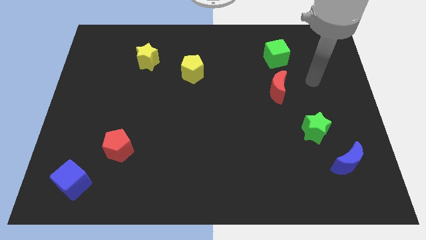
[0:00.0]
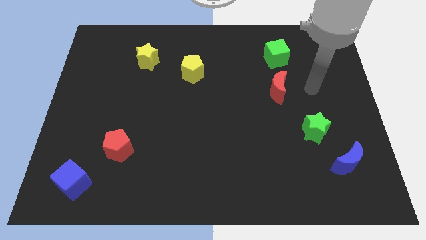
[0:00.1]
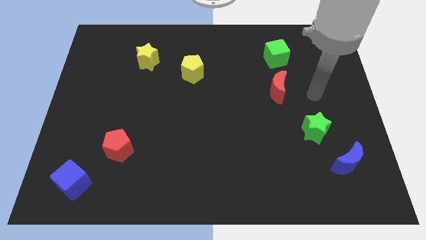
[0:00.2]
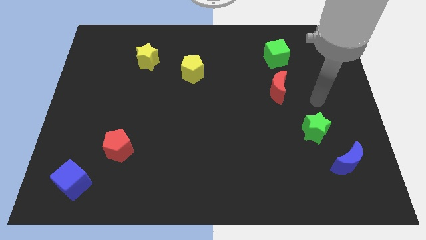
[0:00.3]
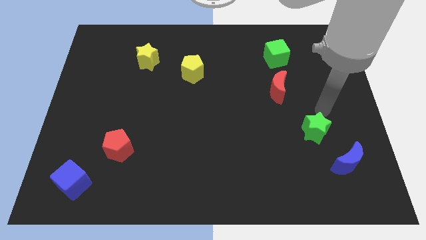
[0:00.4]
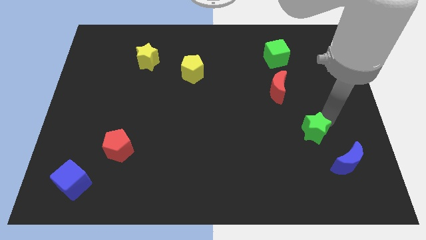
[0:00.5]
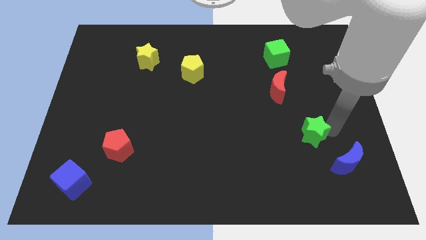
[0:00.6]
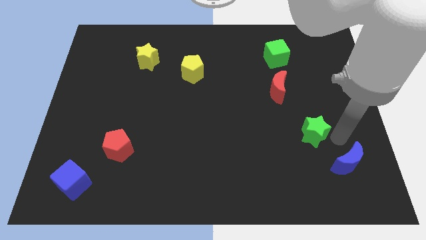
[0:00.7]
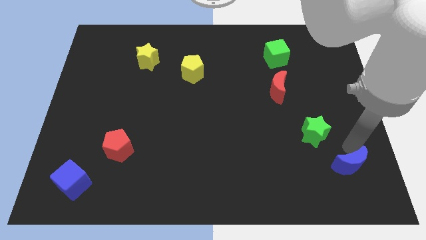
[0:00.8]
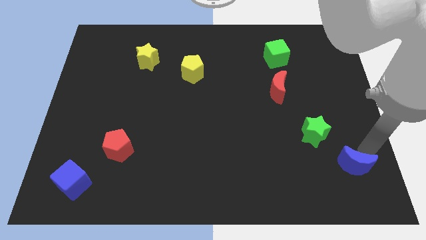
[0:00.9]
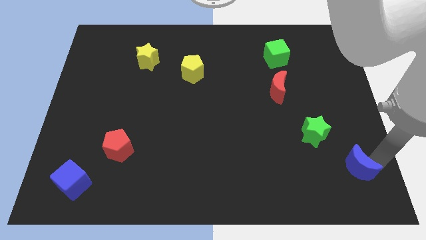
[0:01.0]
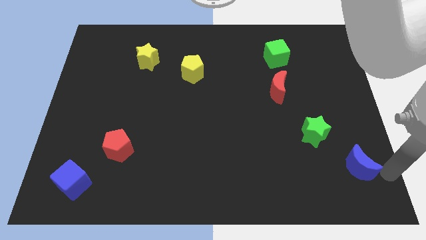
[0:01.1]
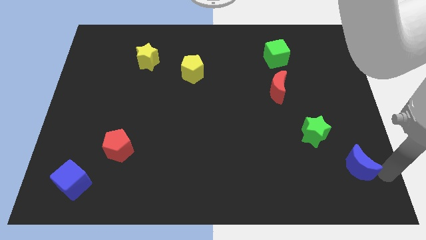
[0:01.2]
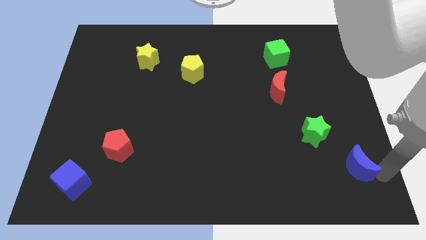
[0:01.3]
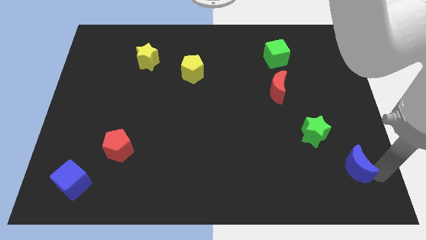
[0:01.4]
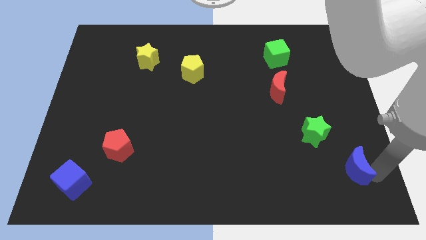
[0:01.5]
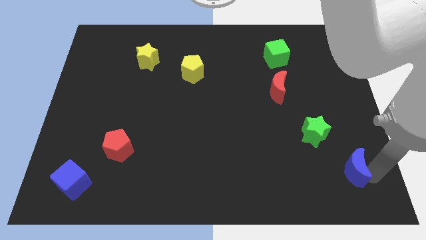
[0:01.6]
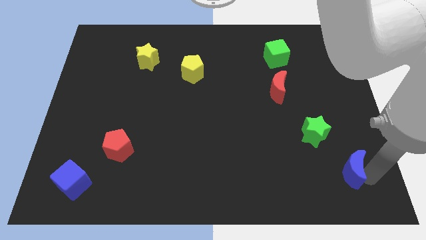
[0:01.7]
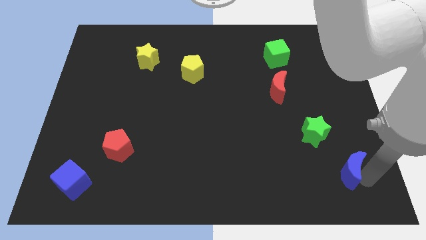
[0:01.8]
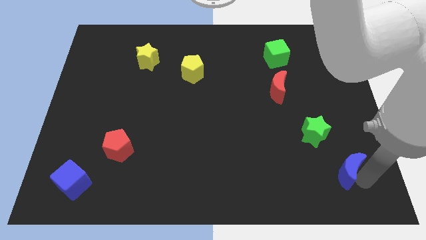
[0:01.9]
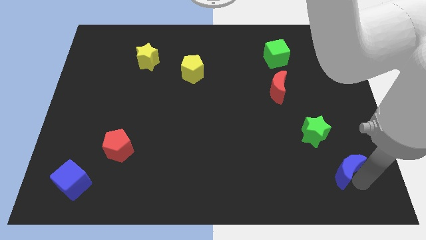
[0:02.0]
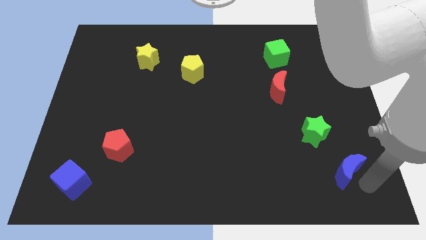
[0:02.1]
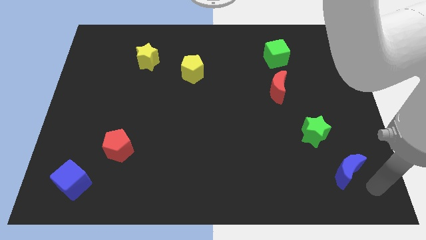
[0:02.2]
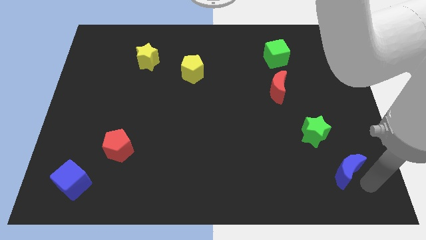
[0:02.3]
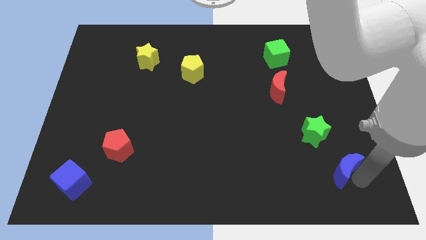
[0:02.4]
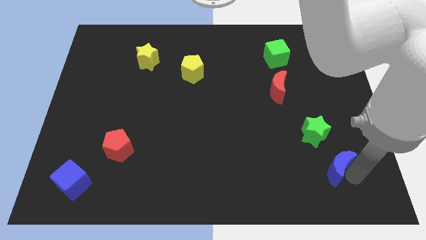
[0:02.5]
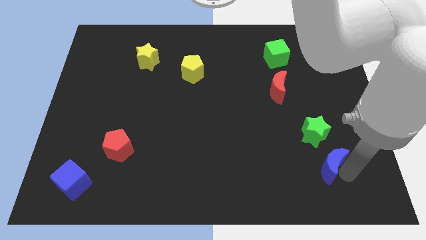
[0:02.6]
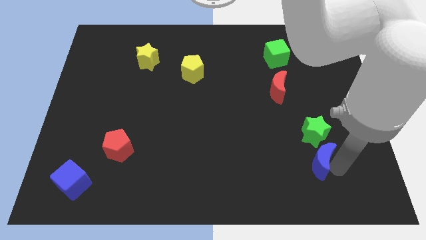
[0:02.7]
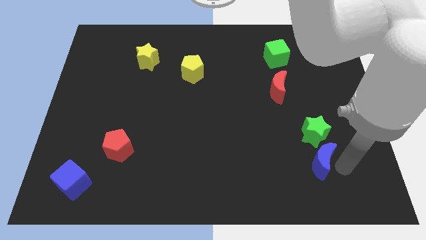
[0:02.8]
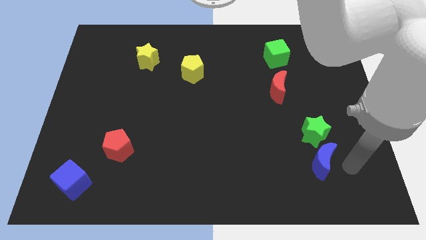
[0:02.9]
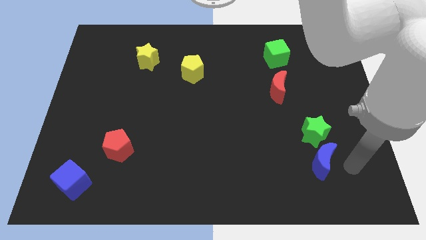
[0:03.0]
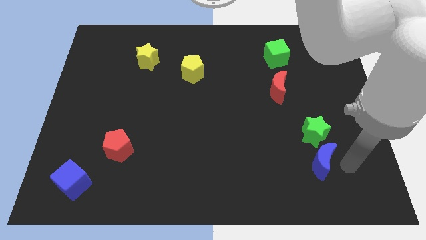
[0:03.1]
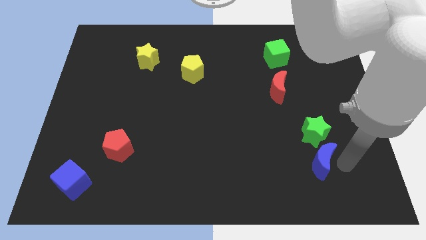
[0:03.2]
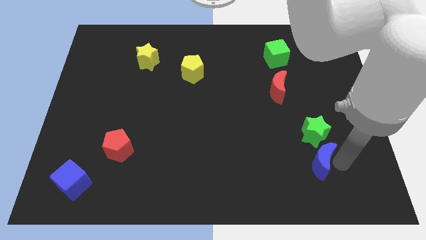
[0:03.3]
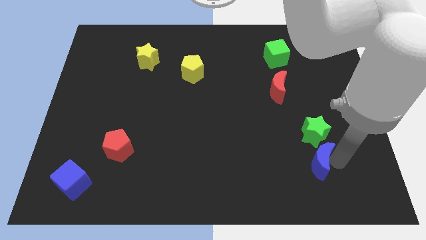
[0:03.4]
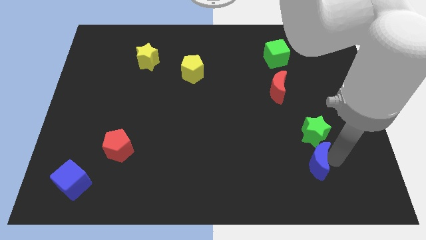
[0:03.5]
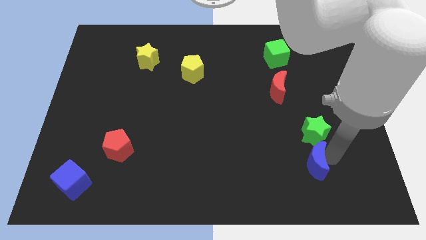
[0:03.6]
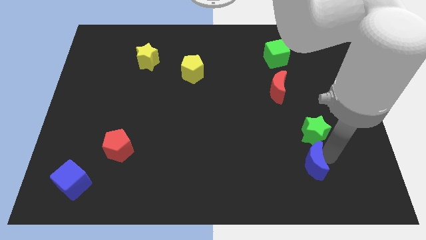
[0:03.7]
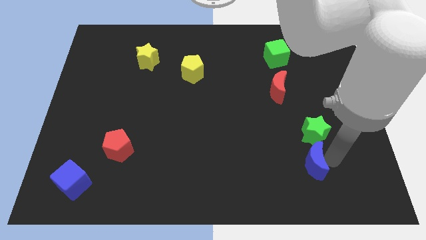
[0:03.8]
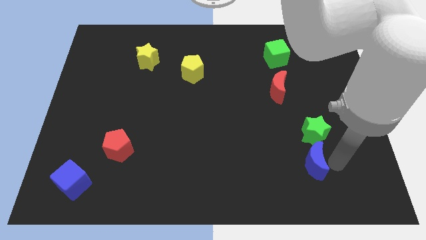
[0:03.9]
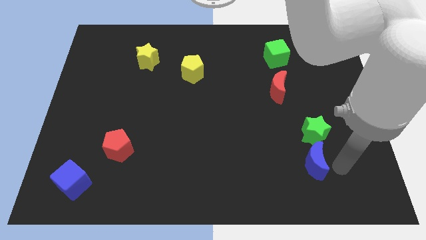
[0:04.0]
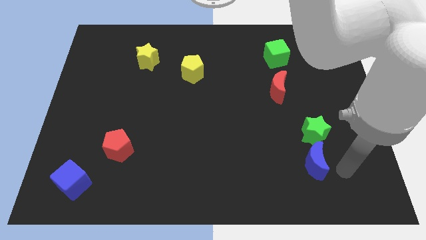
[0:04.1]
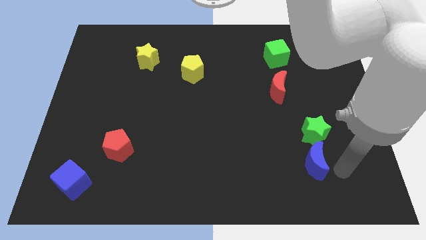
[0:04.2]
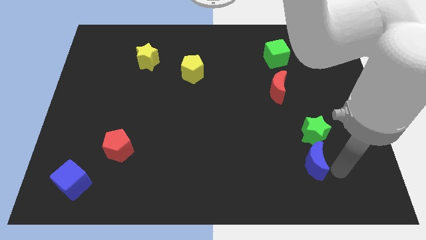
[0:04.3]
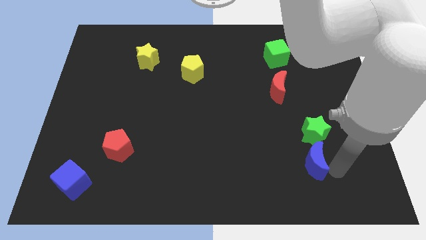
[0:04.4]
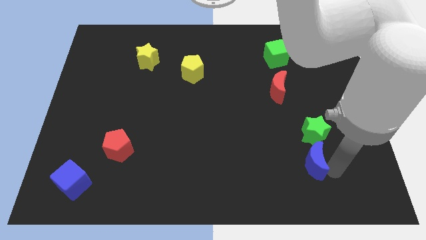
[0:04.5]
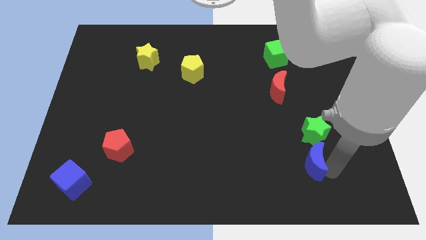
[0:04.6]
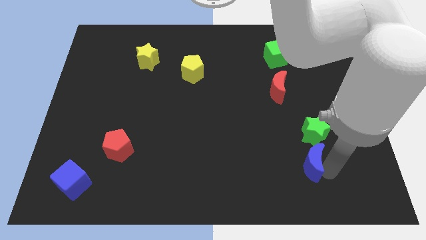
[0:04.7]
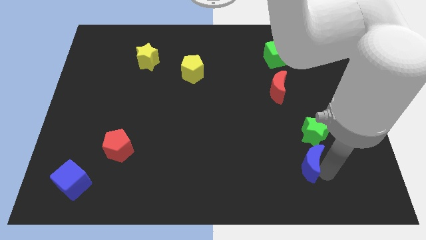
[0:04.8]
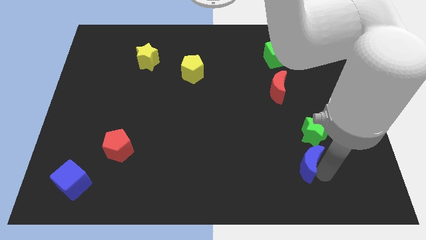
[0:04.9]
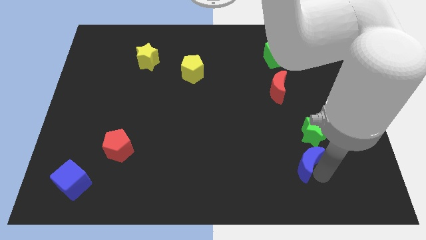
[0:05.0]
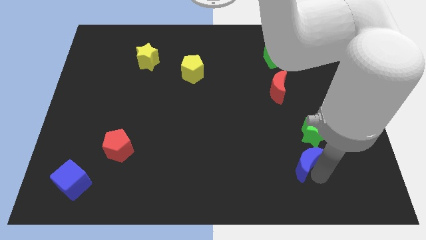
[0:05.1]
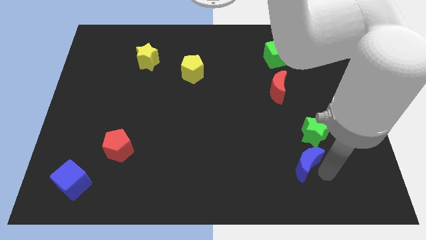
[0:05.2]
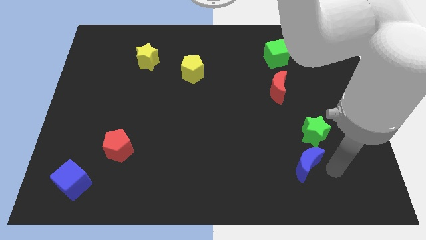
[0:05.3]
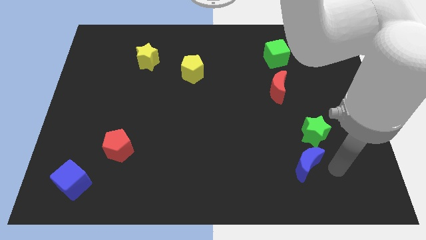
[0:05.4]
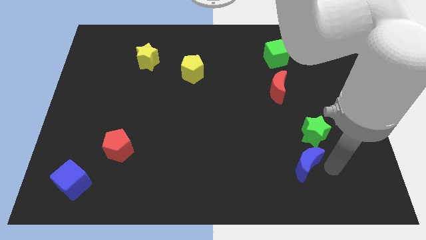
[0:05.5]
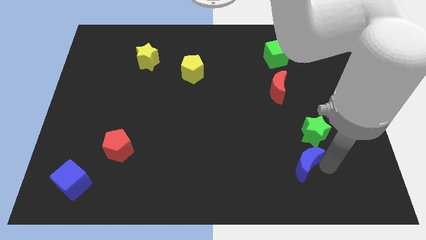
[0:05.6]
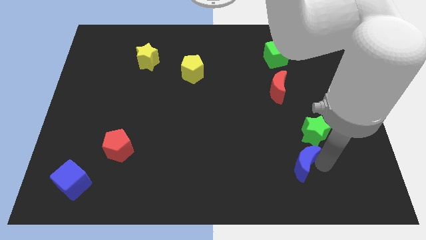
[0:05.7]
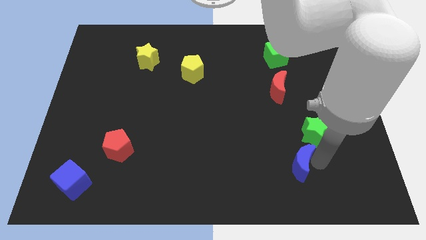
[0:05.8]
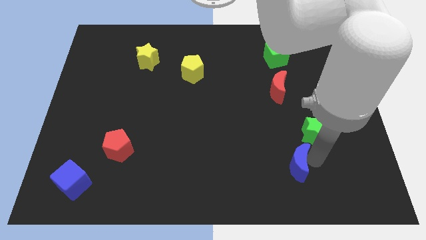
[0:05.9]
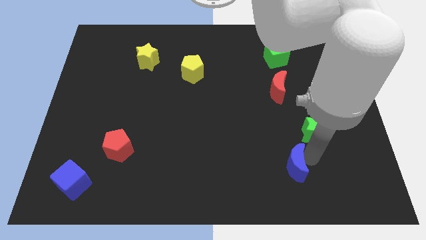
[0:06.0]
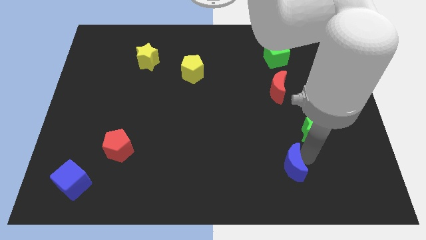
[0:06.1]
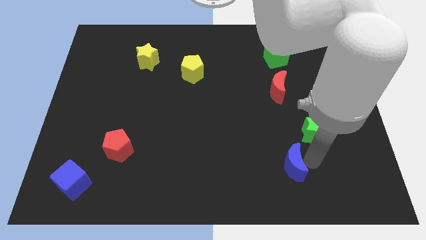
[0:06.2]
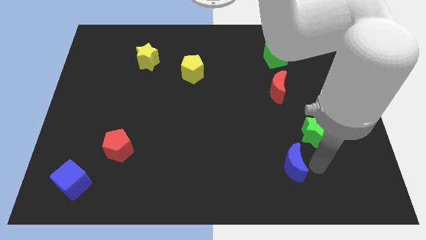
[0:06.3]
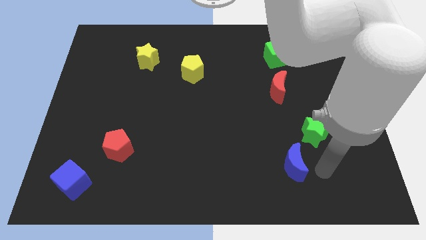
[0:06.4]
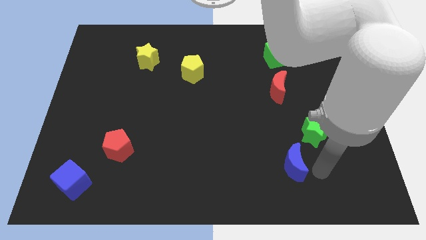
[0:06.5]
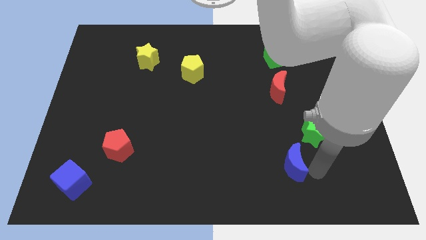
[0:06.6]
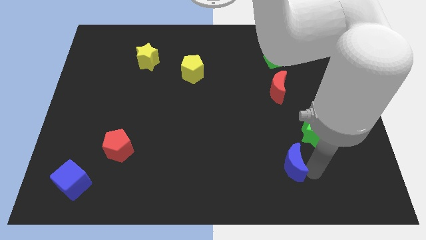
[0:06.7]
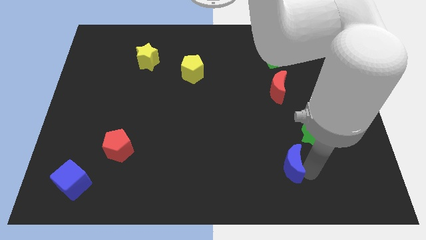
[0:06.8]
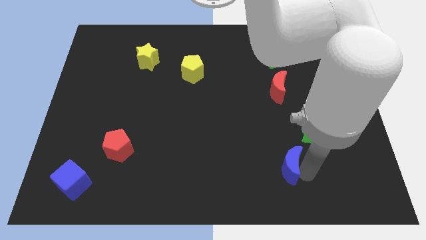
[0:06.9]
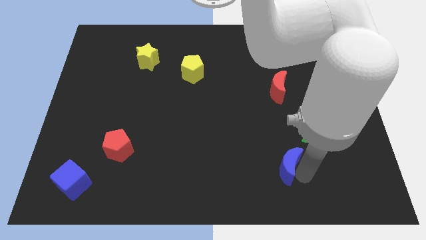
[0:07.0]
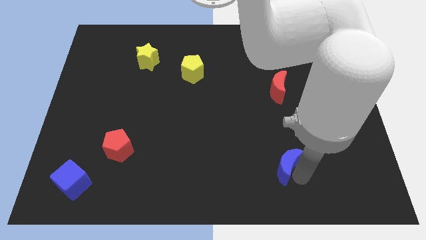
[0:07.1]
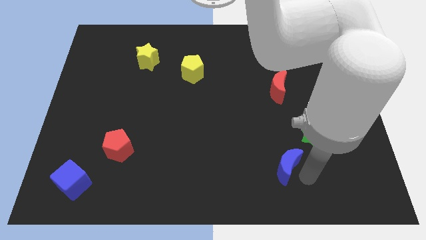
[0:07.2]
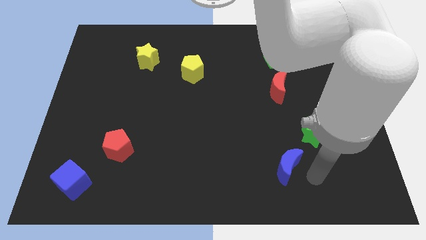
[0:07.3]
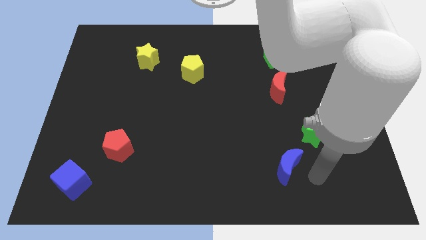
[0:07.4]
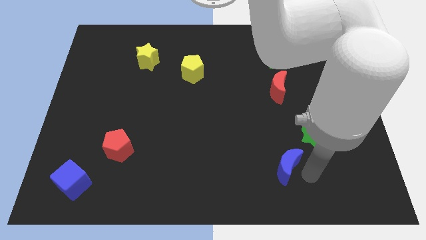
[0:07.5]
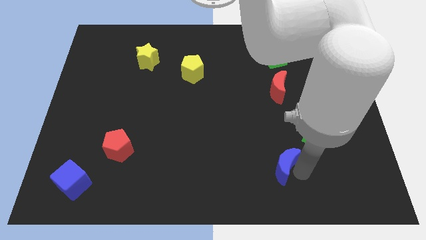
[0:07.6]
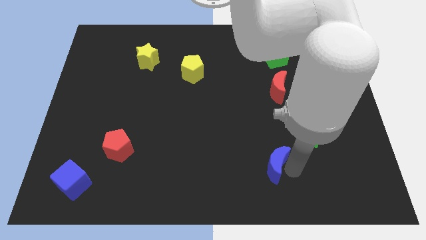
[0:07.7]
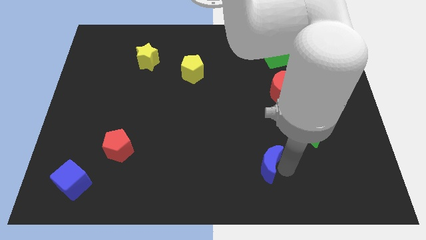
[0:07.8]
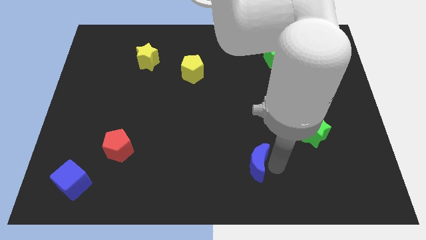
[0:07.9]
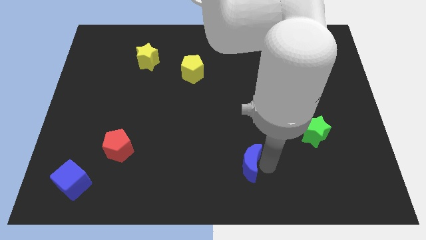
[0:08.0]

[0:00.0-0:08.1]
push the blue moon to the left
